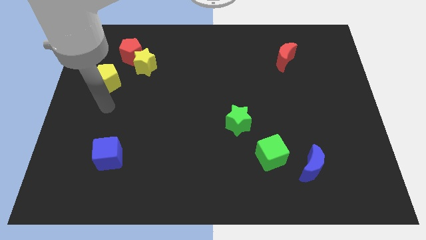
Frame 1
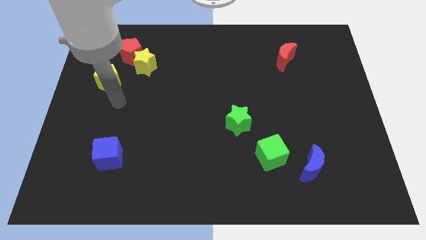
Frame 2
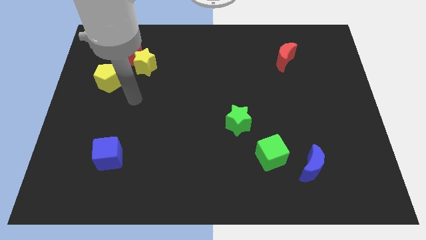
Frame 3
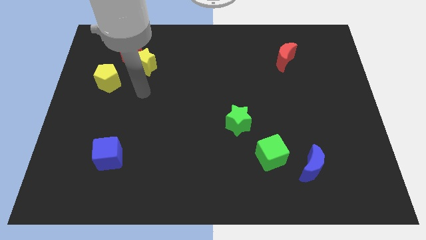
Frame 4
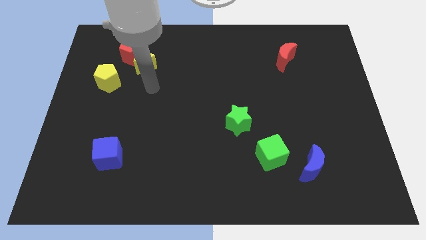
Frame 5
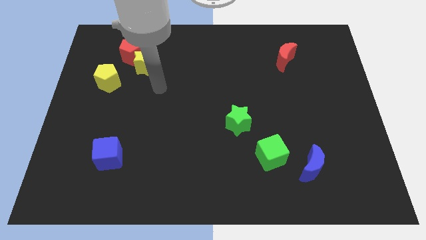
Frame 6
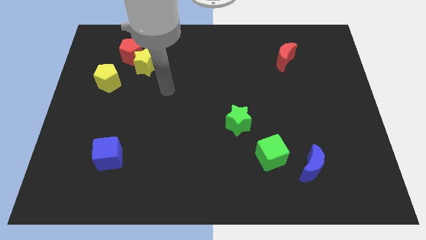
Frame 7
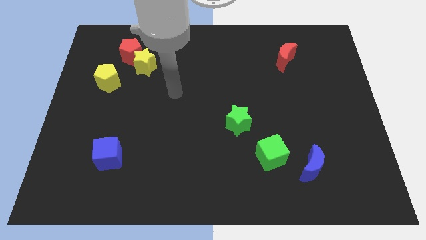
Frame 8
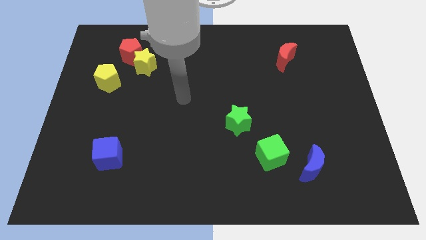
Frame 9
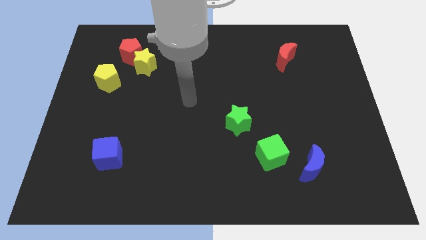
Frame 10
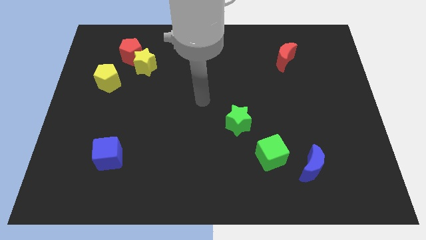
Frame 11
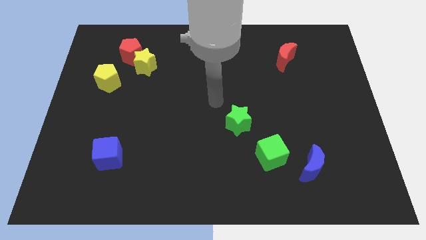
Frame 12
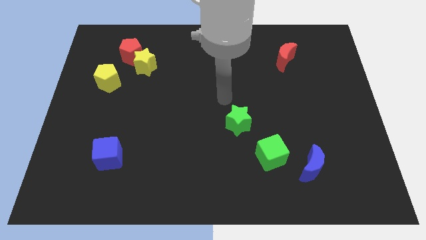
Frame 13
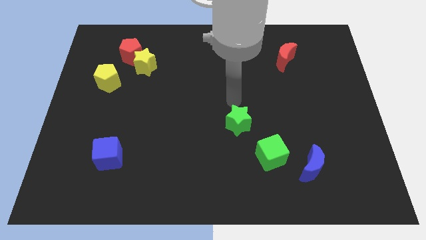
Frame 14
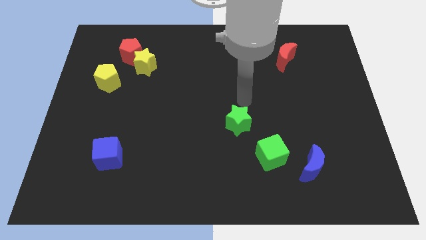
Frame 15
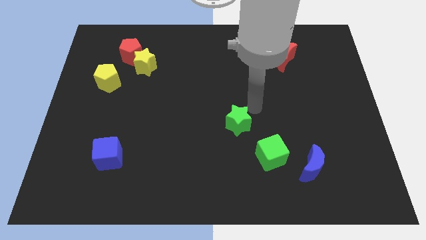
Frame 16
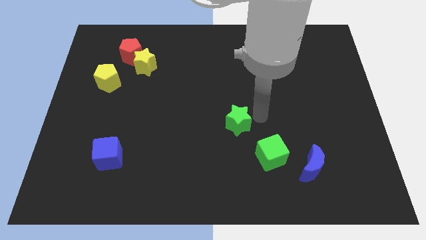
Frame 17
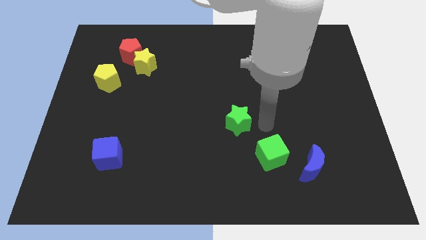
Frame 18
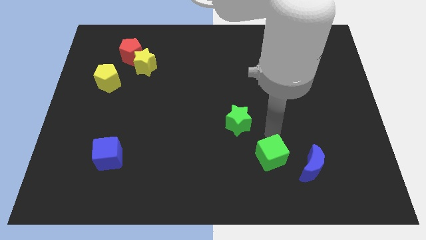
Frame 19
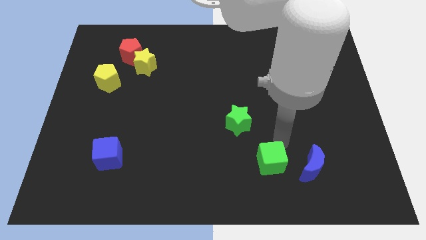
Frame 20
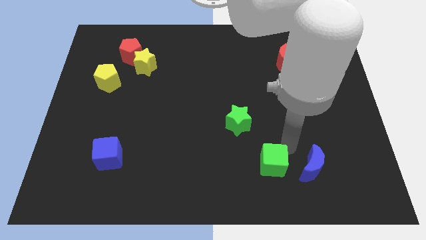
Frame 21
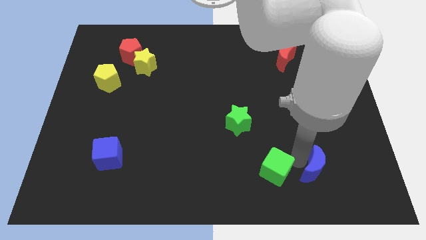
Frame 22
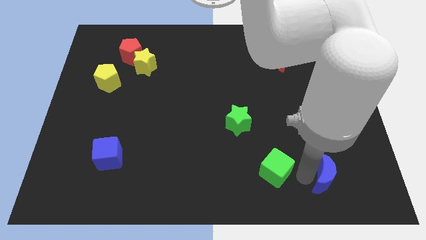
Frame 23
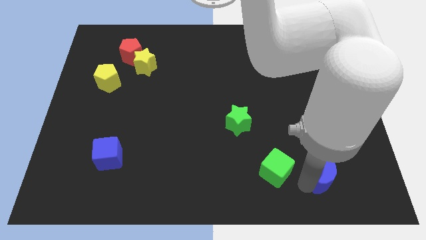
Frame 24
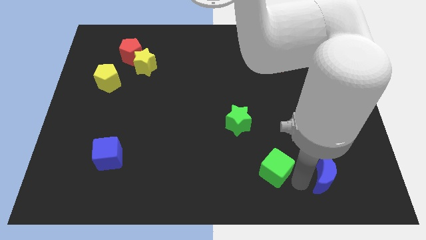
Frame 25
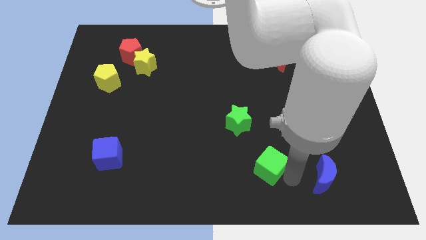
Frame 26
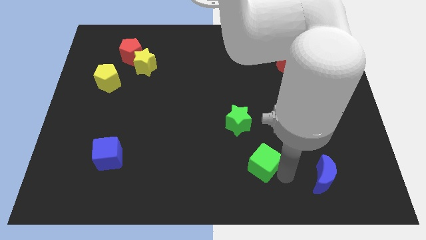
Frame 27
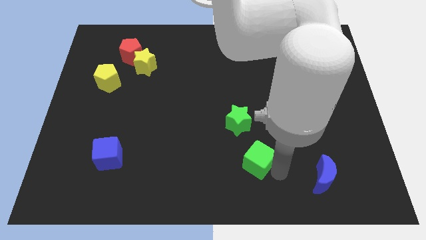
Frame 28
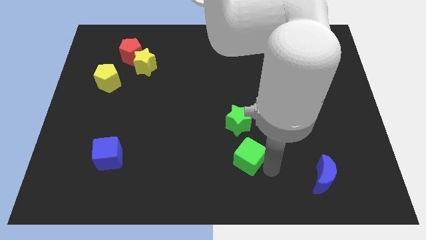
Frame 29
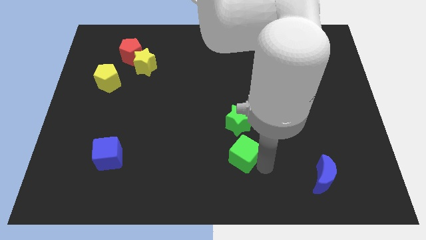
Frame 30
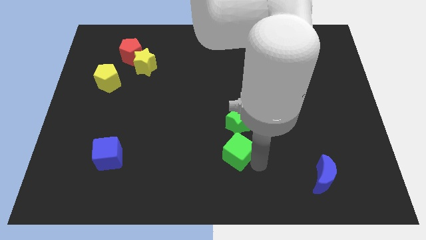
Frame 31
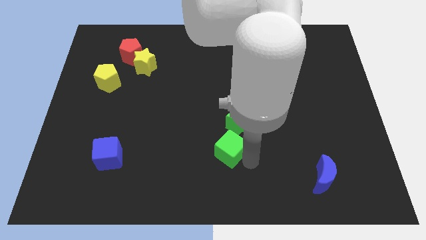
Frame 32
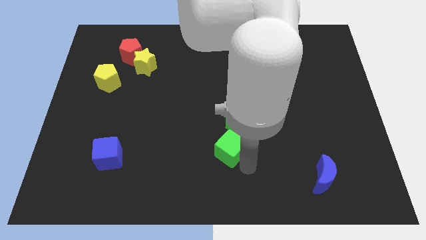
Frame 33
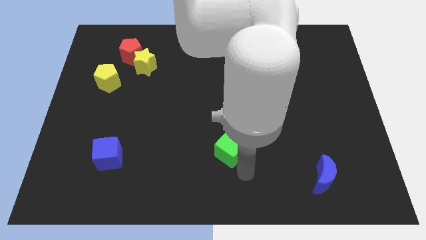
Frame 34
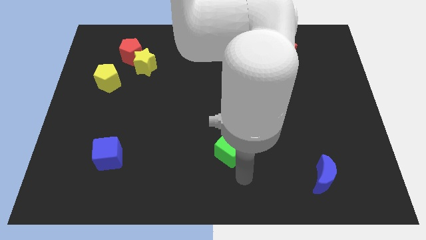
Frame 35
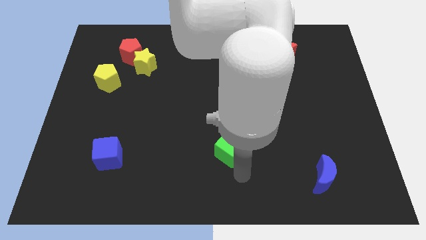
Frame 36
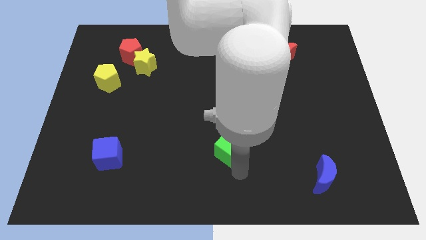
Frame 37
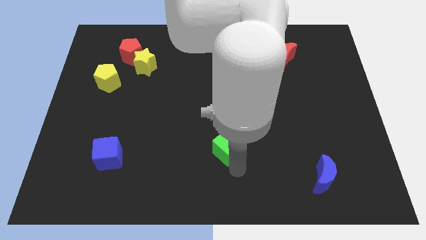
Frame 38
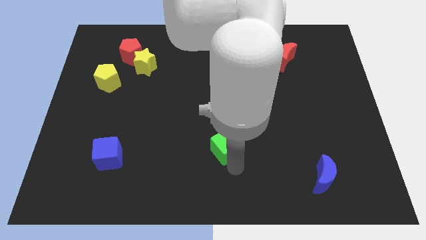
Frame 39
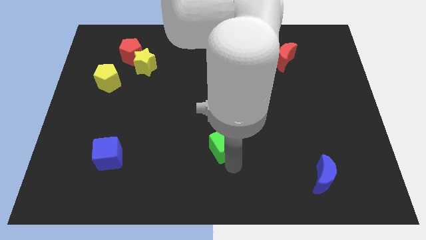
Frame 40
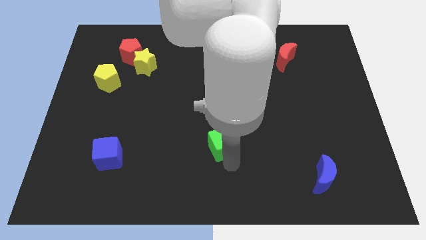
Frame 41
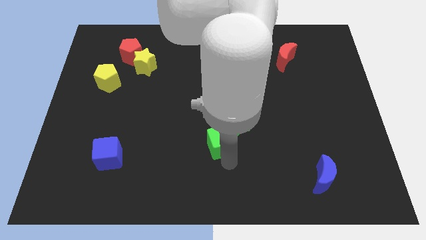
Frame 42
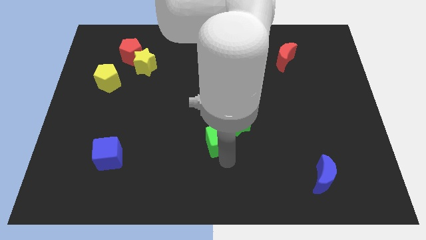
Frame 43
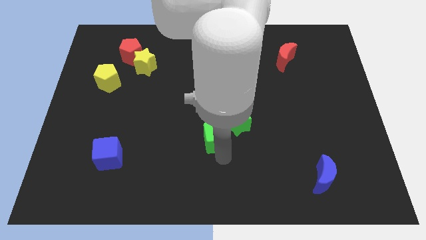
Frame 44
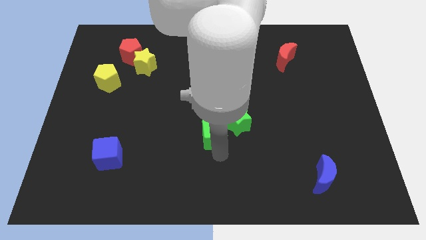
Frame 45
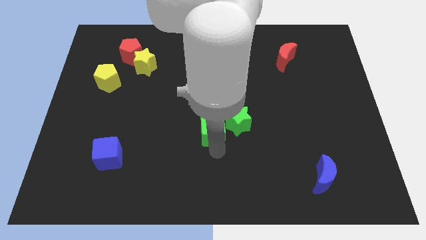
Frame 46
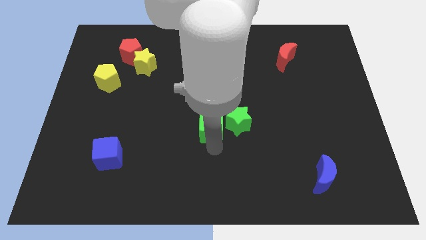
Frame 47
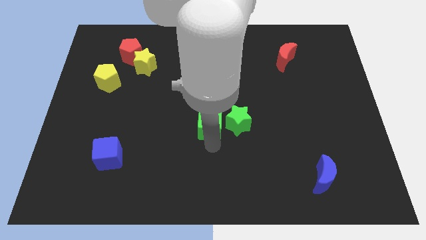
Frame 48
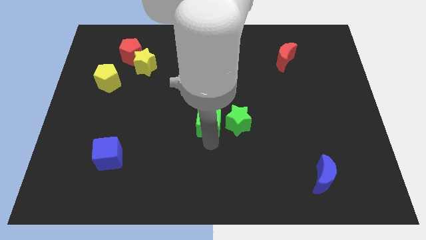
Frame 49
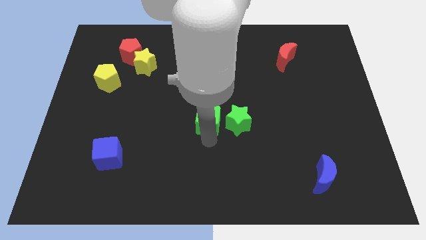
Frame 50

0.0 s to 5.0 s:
slide the green cube to the top left of the green star

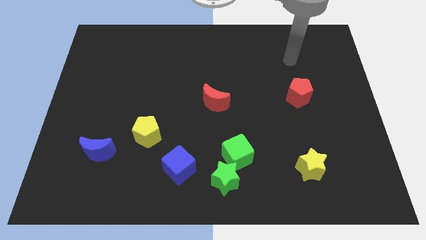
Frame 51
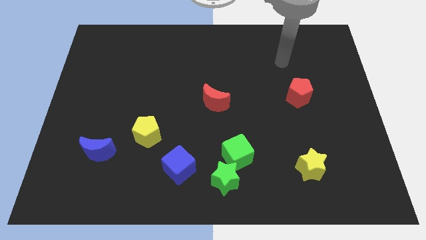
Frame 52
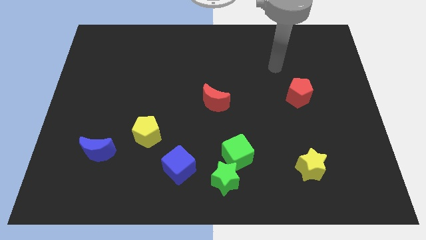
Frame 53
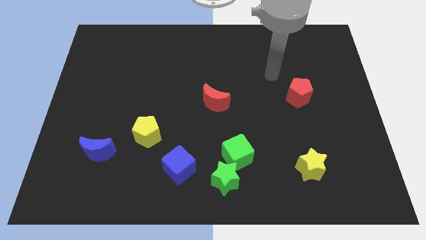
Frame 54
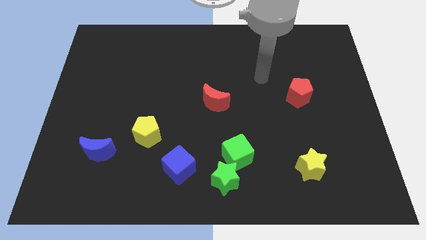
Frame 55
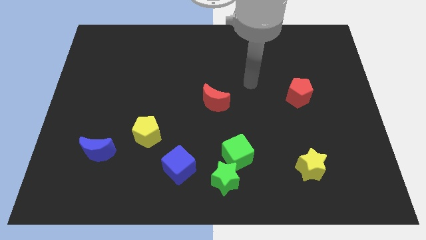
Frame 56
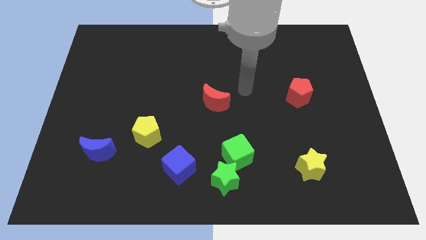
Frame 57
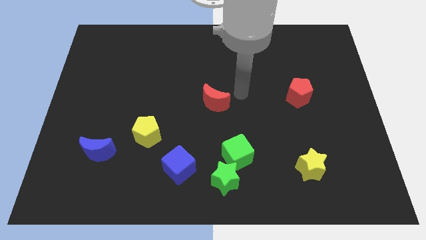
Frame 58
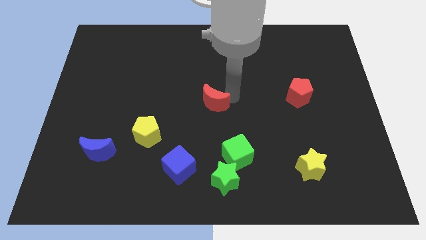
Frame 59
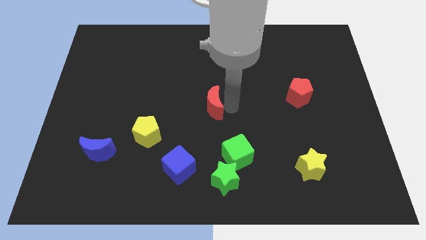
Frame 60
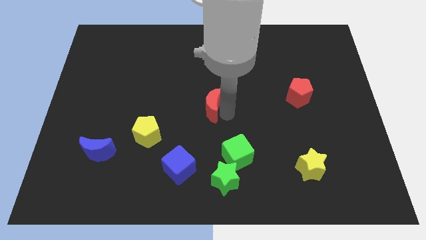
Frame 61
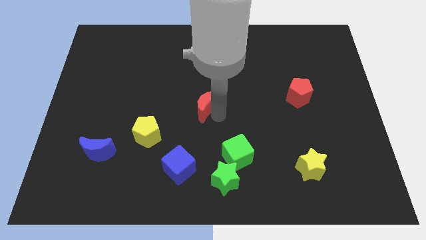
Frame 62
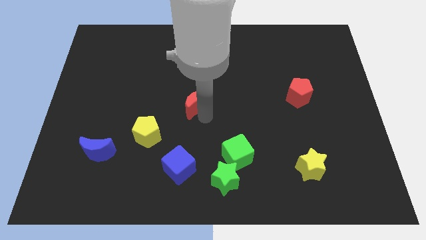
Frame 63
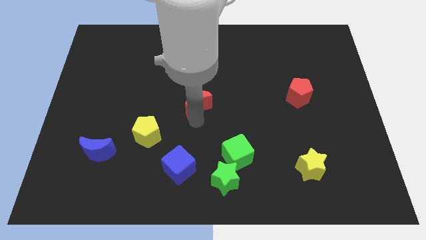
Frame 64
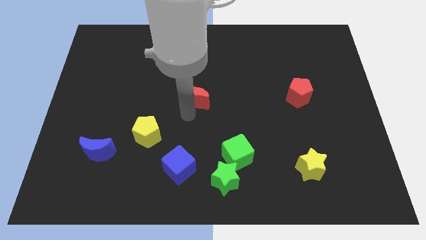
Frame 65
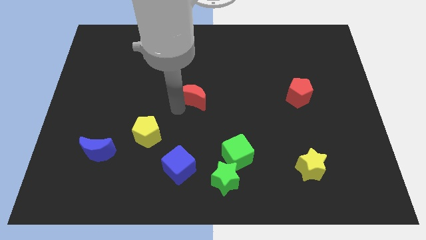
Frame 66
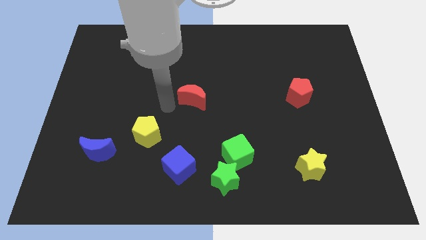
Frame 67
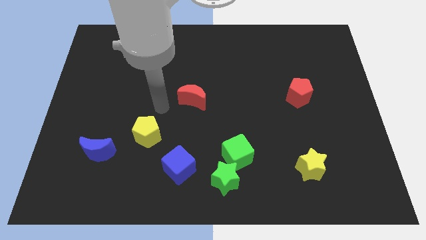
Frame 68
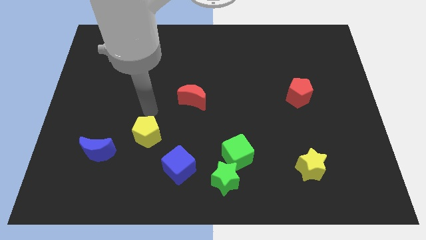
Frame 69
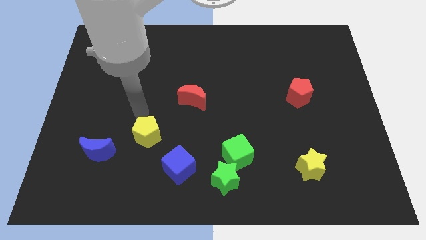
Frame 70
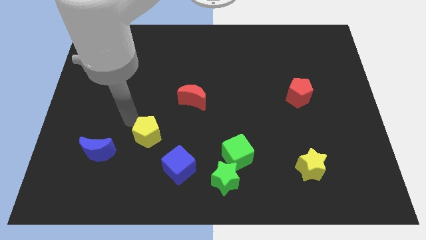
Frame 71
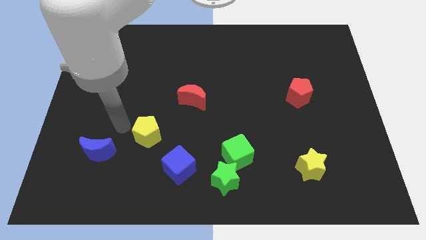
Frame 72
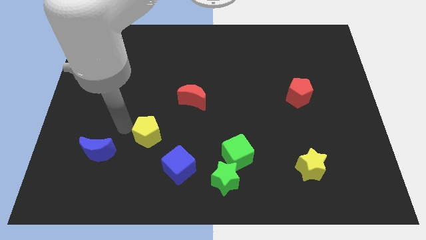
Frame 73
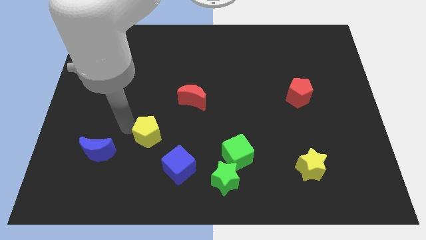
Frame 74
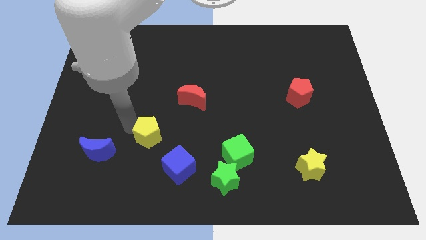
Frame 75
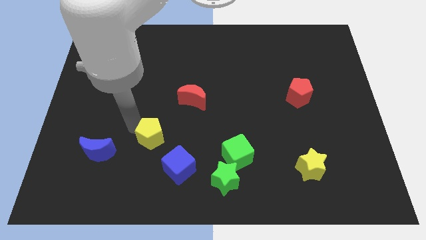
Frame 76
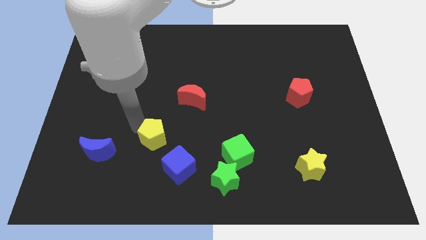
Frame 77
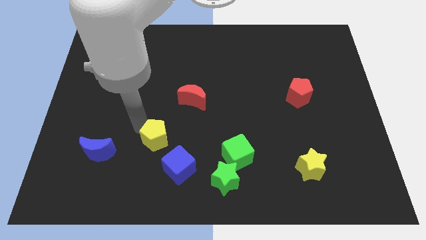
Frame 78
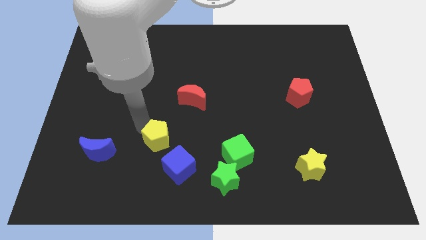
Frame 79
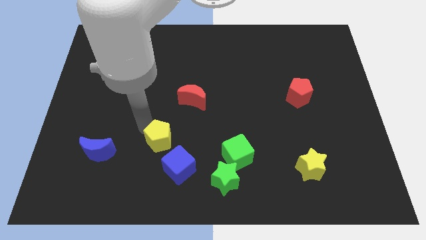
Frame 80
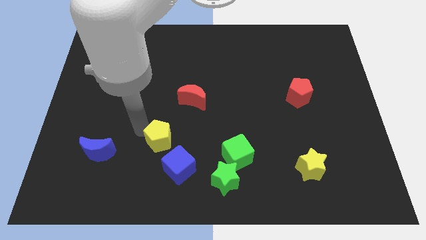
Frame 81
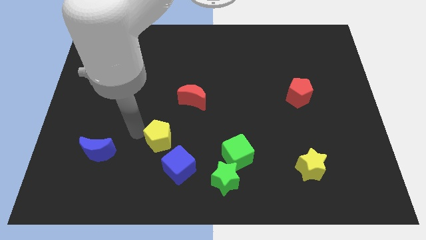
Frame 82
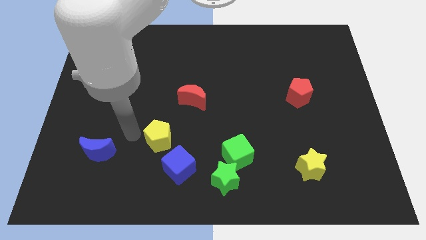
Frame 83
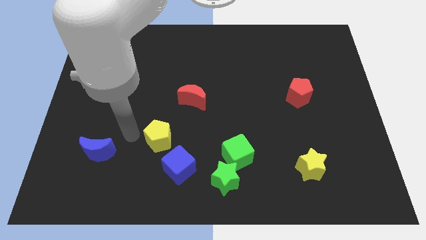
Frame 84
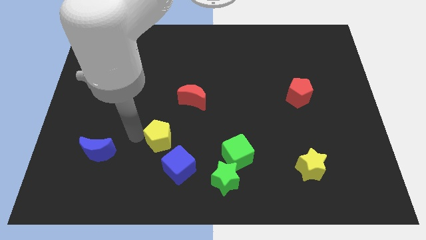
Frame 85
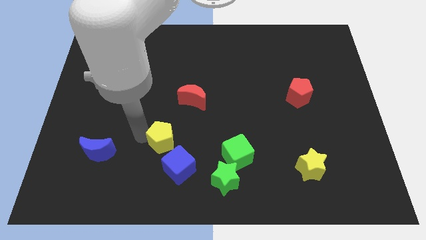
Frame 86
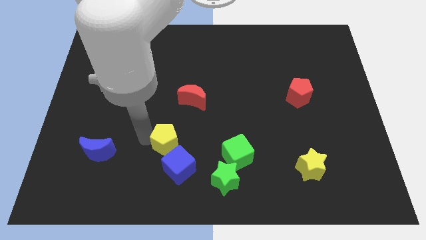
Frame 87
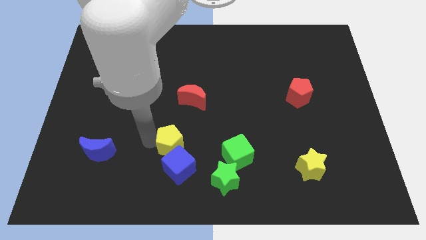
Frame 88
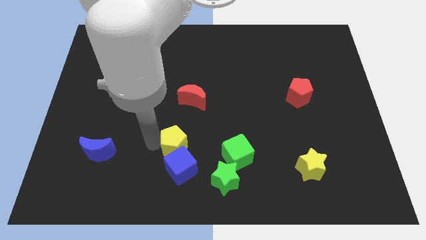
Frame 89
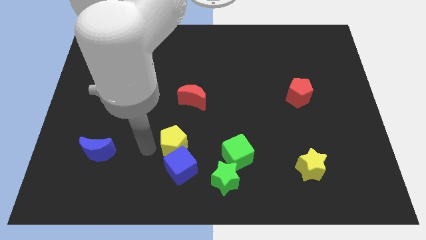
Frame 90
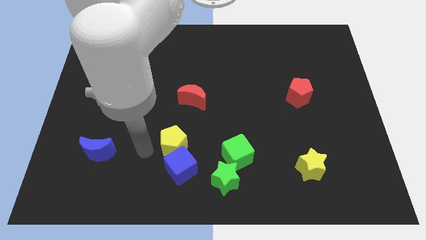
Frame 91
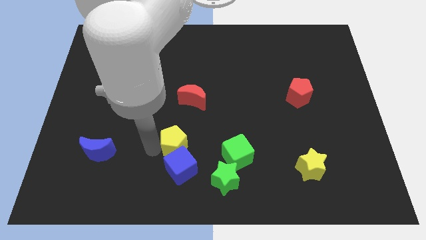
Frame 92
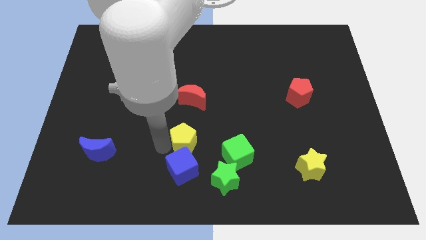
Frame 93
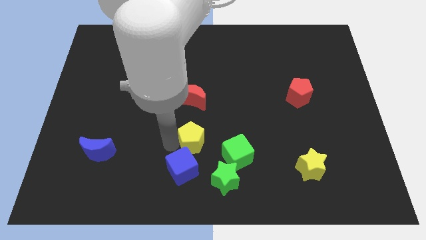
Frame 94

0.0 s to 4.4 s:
slide the yellow pentagon to the top left of the green cube
